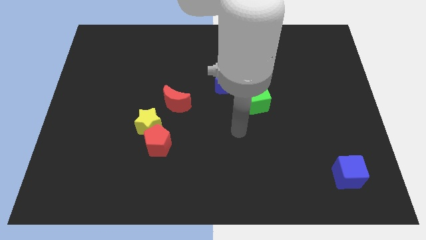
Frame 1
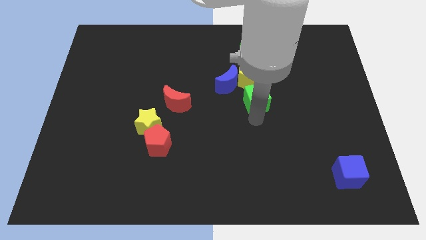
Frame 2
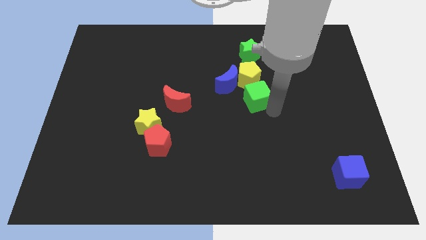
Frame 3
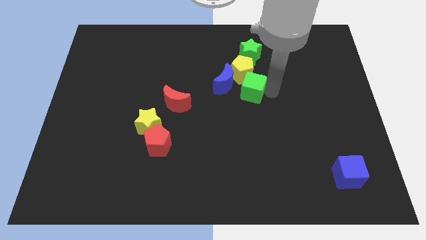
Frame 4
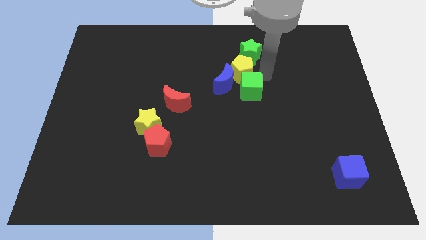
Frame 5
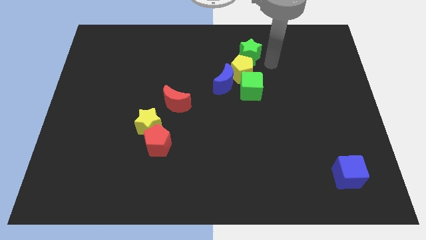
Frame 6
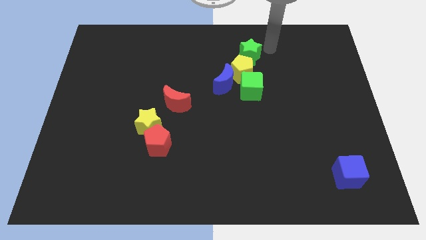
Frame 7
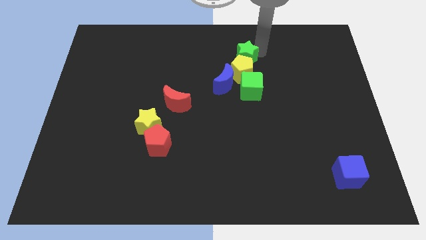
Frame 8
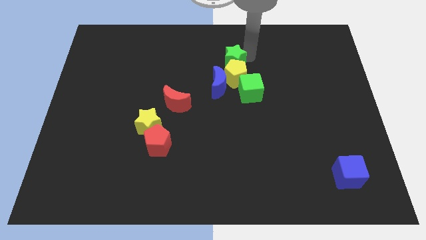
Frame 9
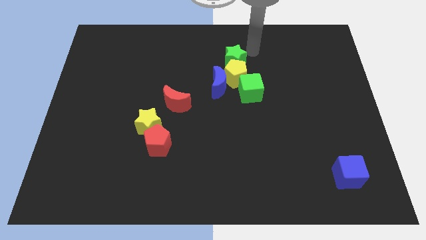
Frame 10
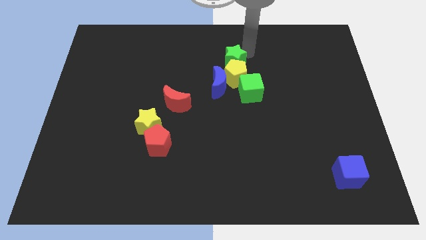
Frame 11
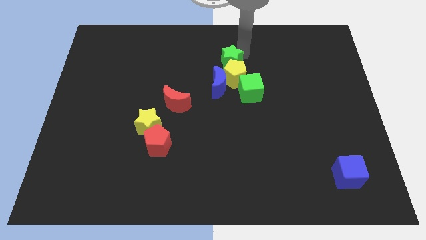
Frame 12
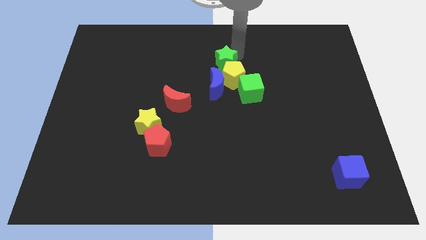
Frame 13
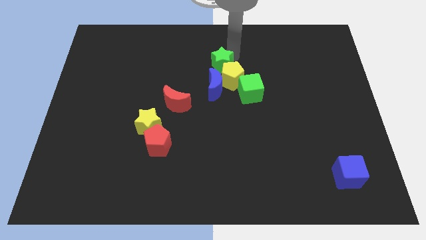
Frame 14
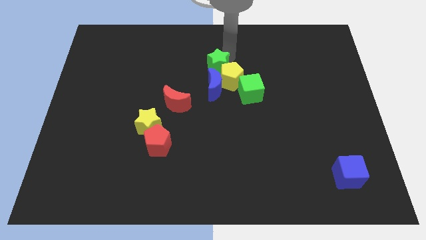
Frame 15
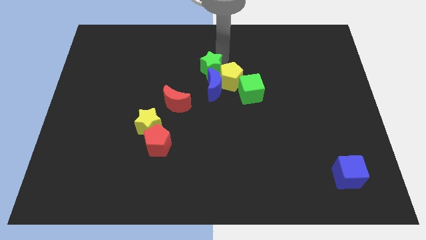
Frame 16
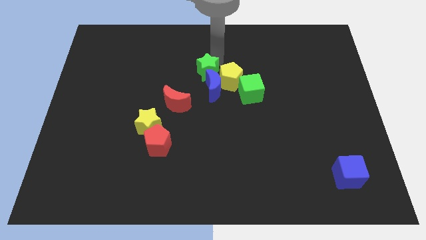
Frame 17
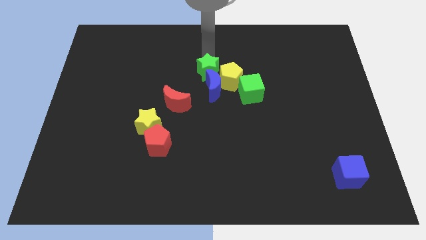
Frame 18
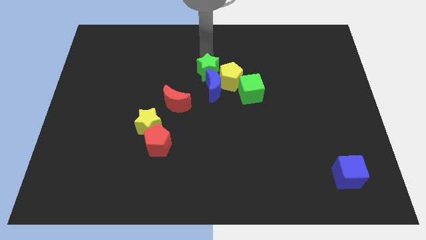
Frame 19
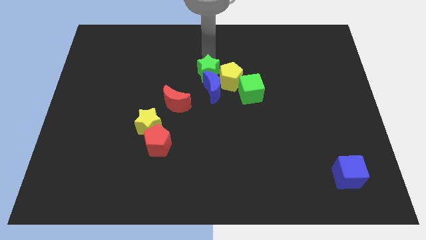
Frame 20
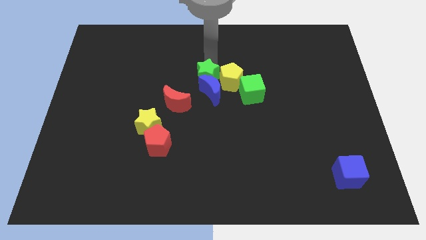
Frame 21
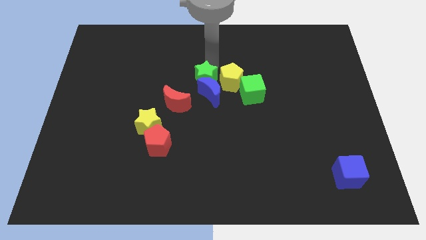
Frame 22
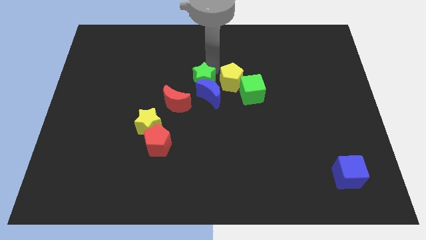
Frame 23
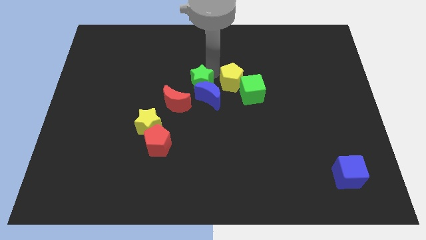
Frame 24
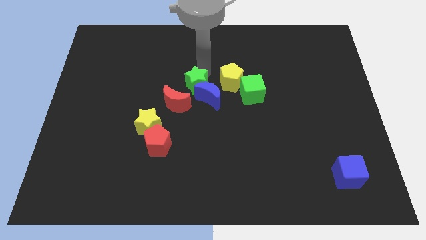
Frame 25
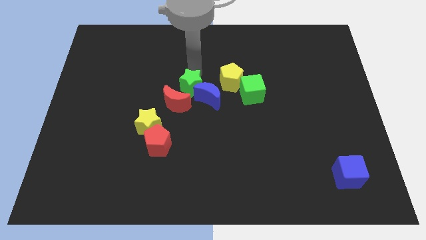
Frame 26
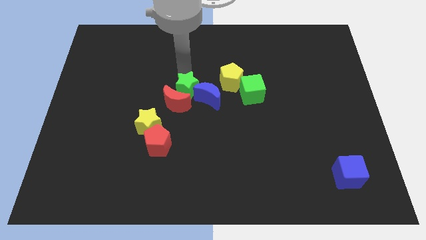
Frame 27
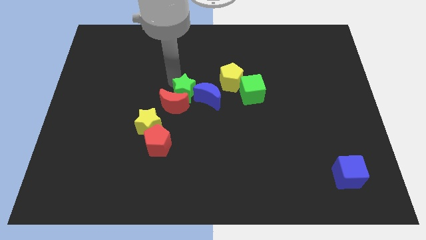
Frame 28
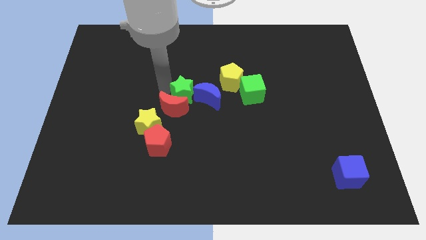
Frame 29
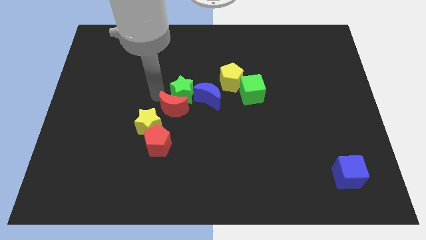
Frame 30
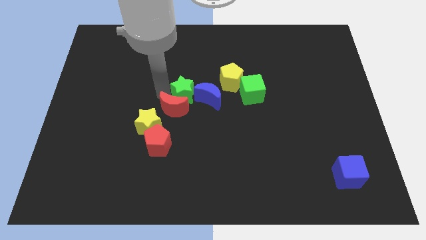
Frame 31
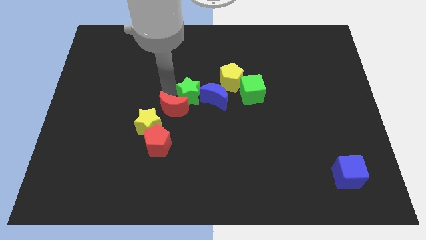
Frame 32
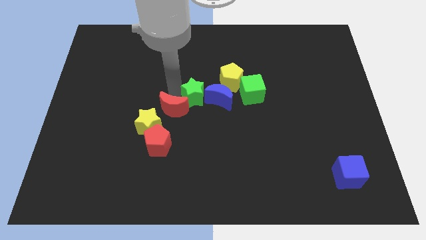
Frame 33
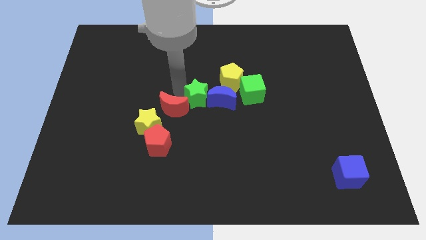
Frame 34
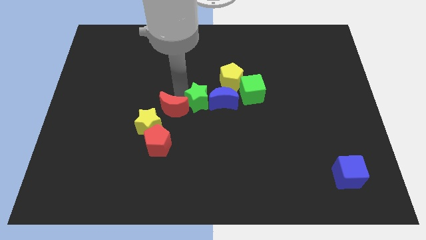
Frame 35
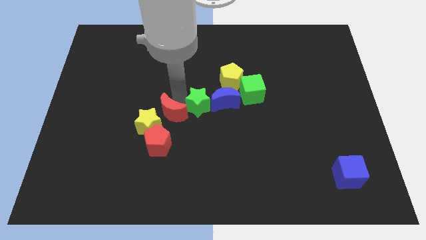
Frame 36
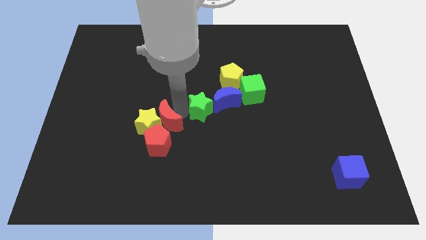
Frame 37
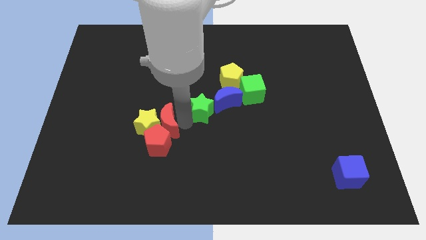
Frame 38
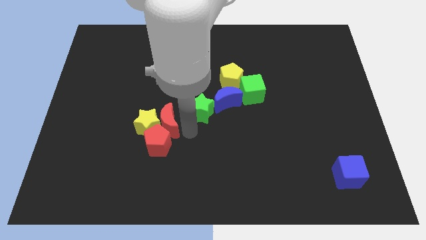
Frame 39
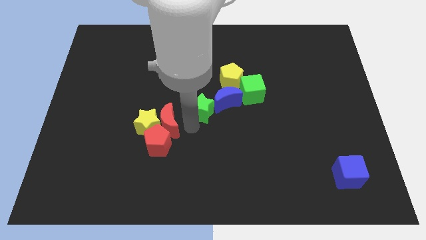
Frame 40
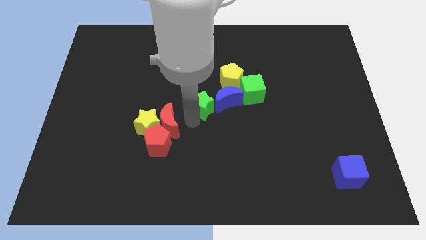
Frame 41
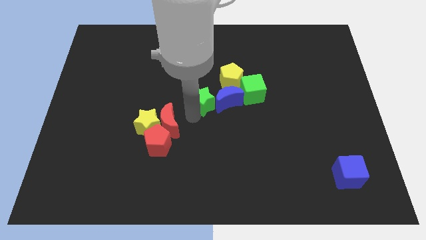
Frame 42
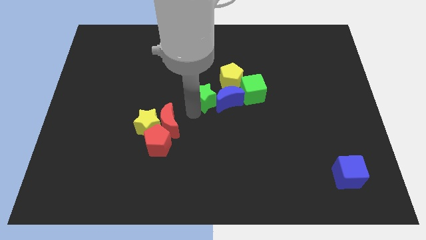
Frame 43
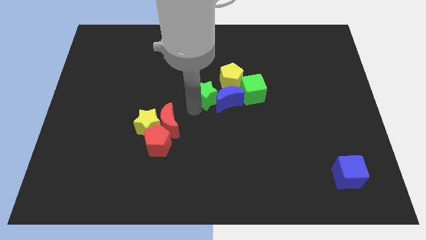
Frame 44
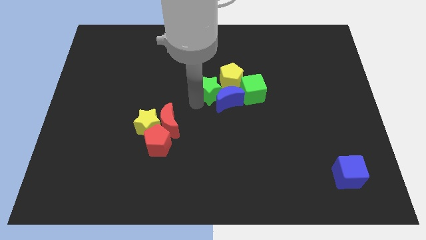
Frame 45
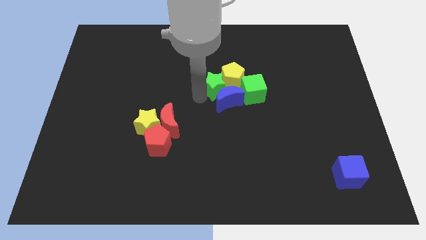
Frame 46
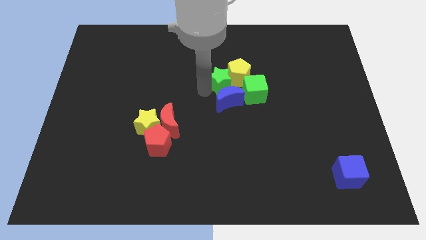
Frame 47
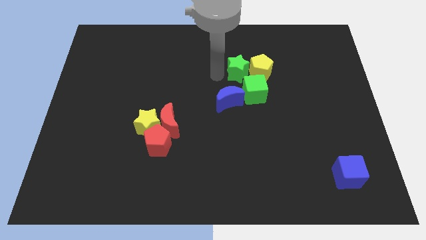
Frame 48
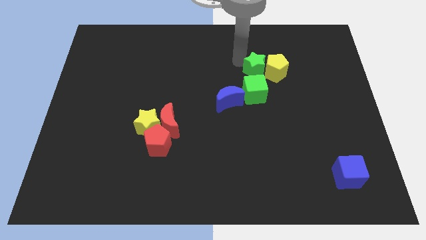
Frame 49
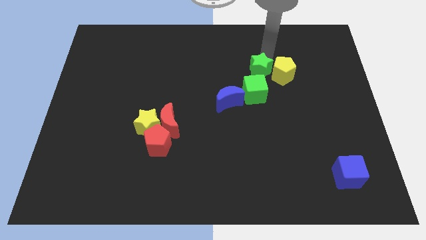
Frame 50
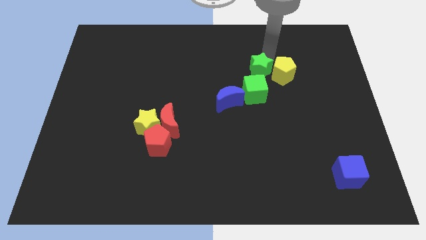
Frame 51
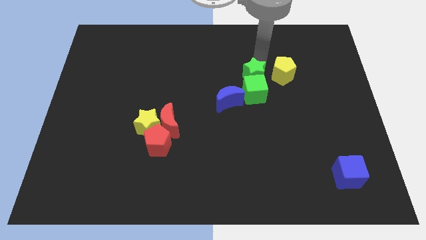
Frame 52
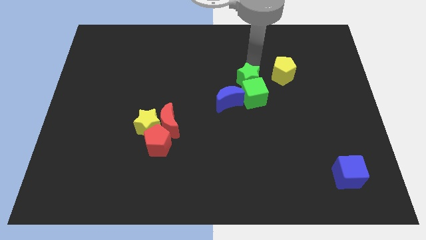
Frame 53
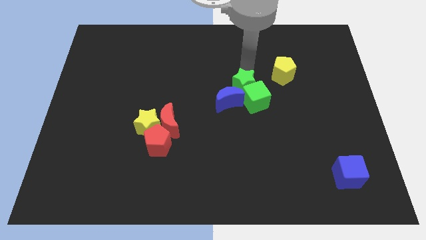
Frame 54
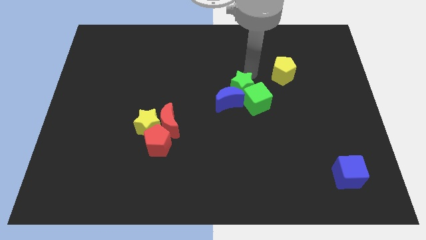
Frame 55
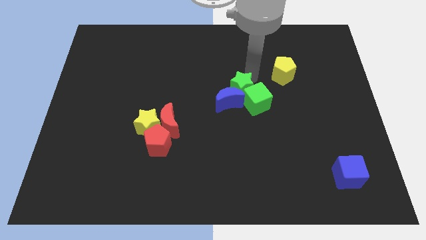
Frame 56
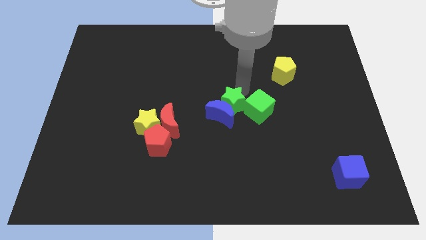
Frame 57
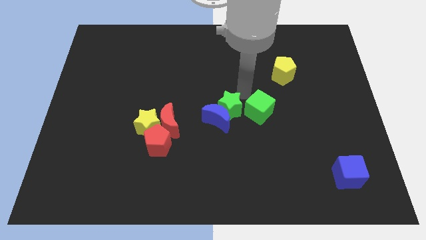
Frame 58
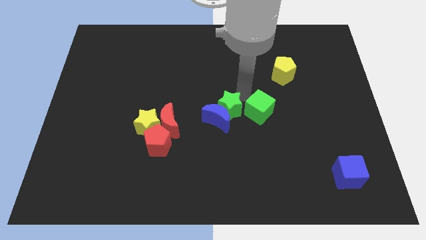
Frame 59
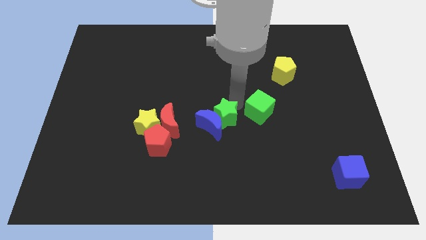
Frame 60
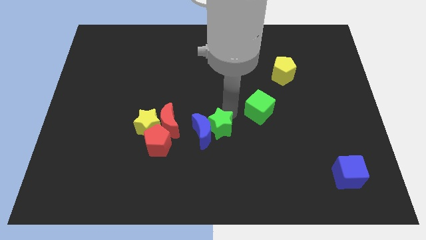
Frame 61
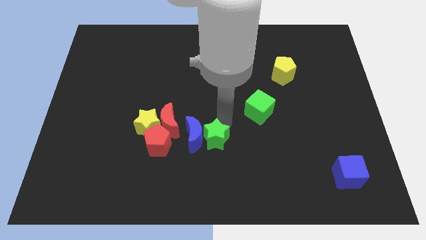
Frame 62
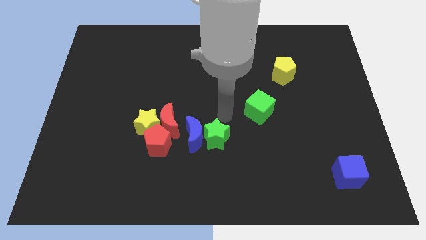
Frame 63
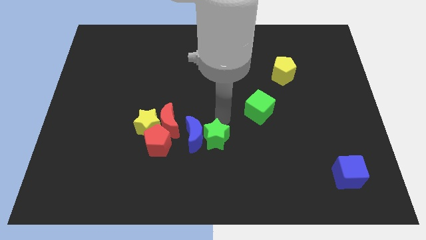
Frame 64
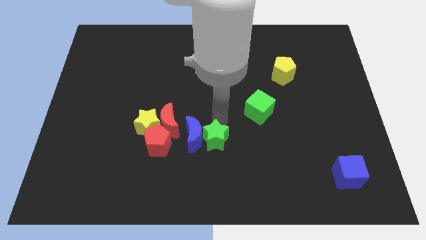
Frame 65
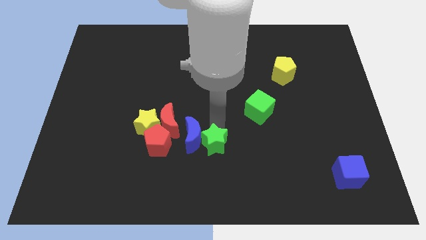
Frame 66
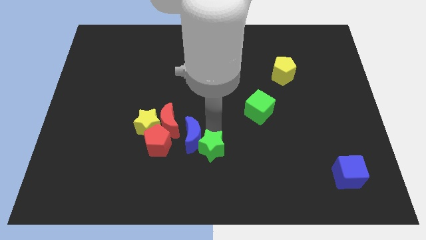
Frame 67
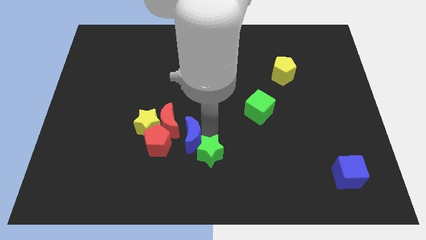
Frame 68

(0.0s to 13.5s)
move the green star to the bottom

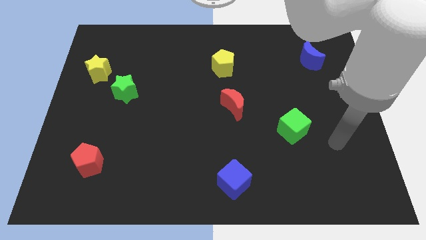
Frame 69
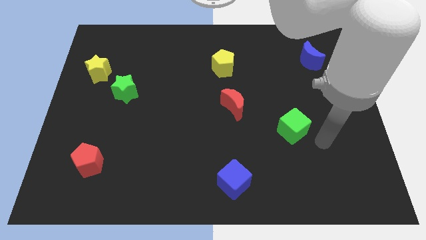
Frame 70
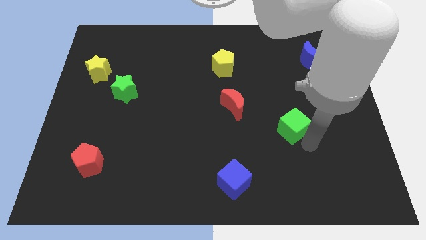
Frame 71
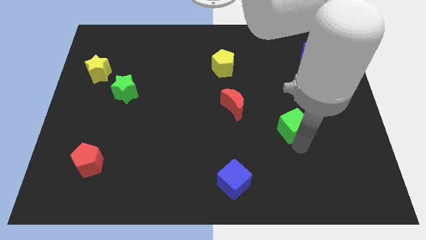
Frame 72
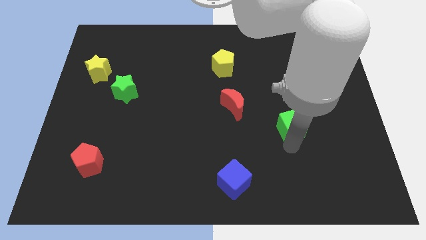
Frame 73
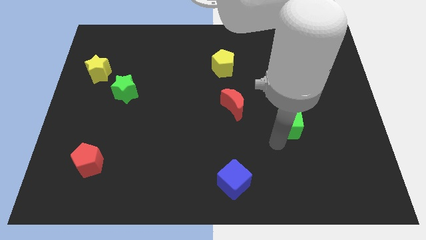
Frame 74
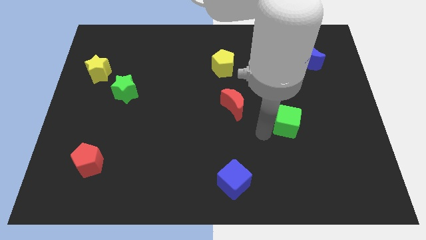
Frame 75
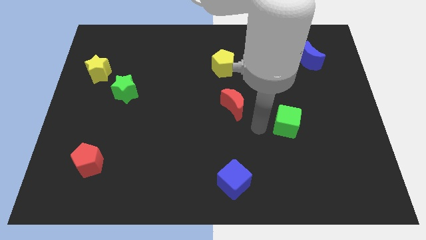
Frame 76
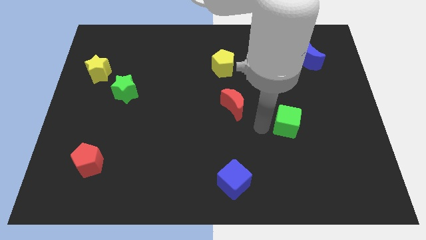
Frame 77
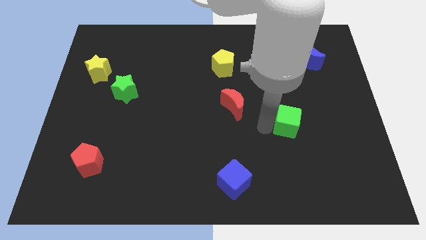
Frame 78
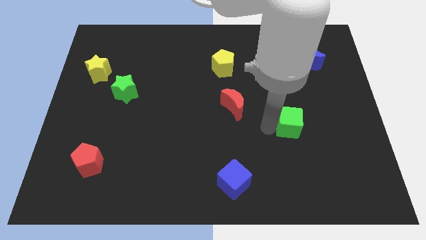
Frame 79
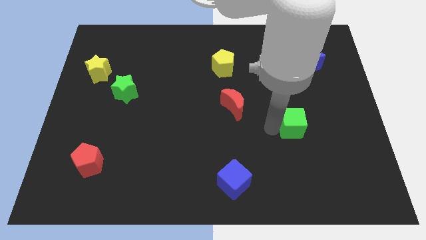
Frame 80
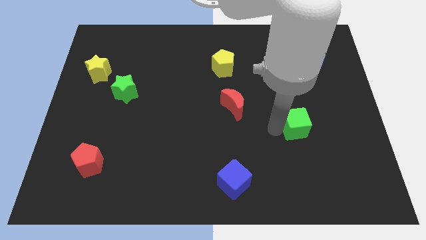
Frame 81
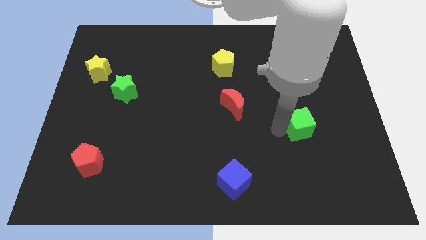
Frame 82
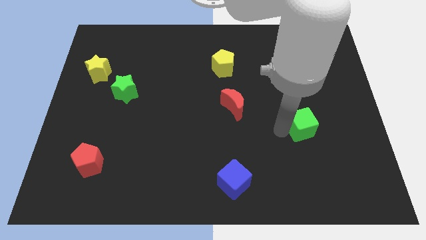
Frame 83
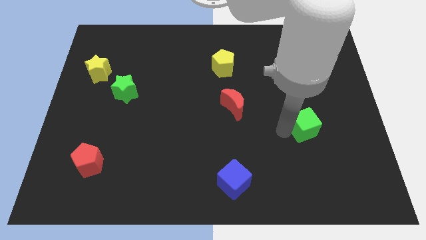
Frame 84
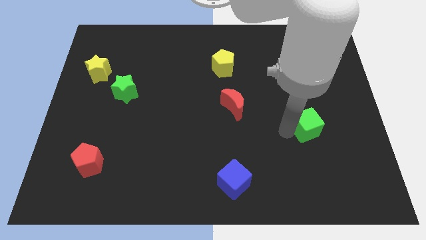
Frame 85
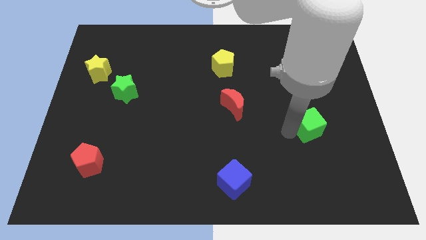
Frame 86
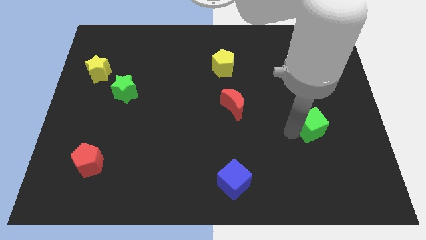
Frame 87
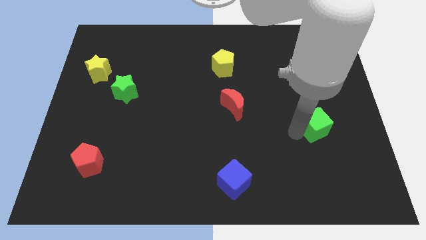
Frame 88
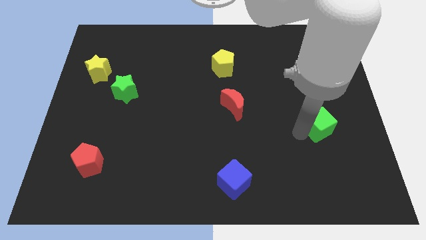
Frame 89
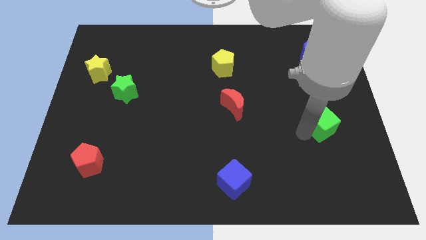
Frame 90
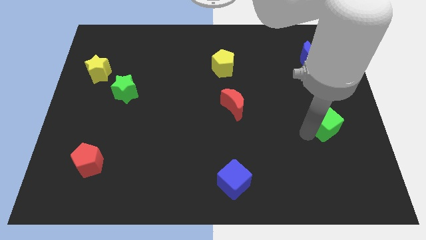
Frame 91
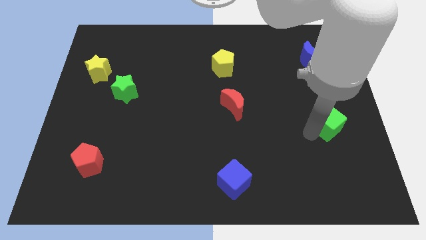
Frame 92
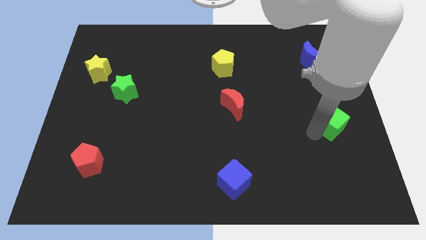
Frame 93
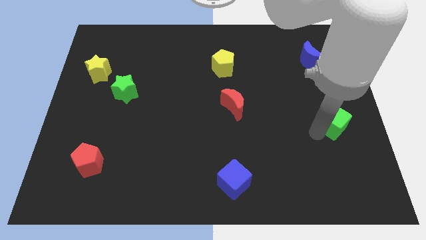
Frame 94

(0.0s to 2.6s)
slide the green cube to the right side
